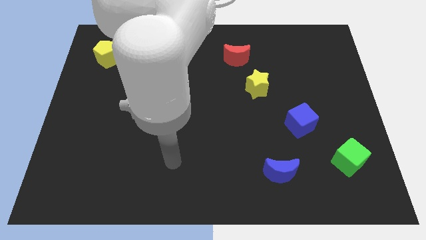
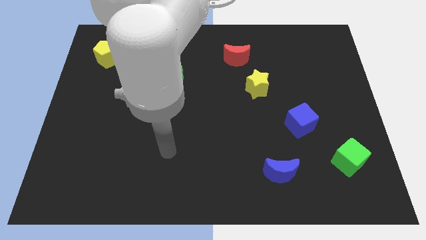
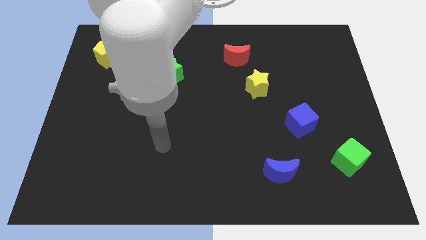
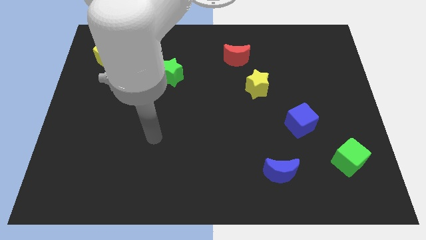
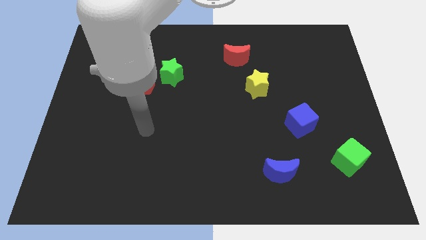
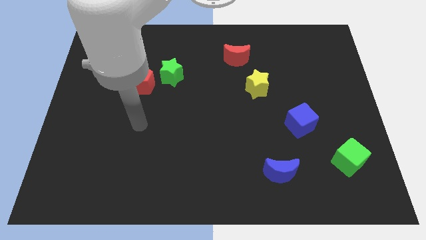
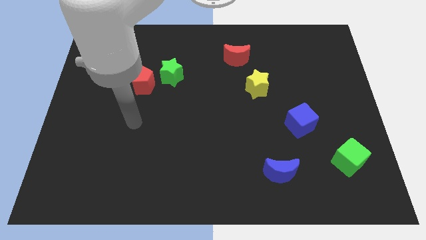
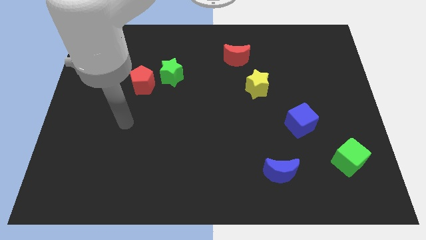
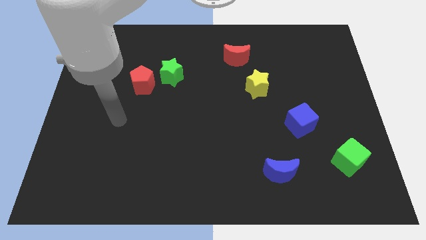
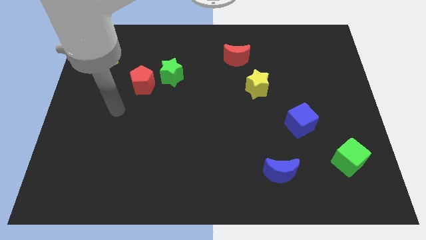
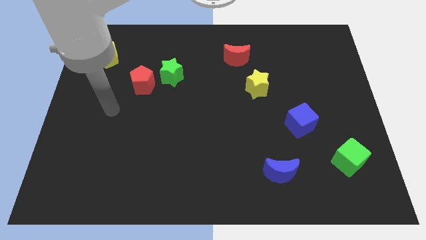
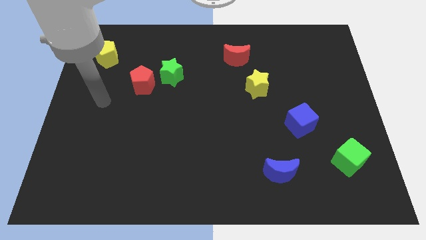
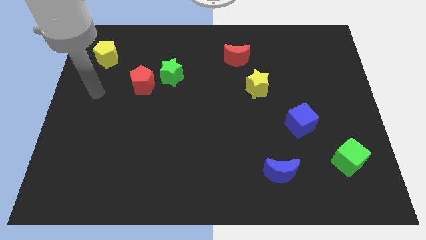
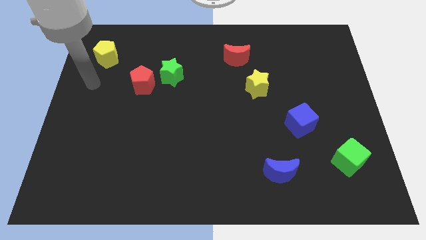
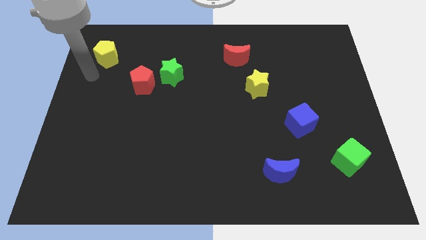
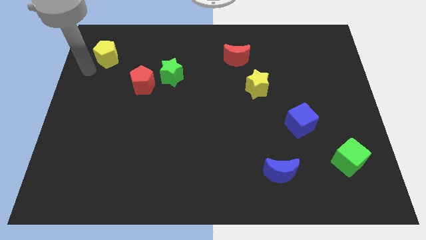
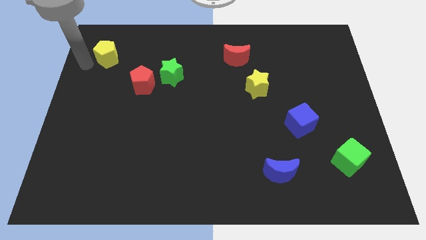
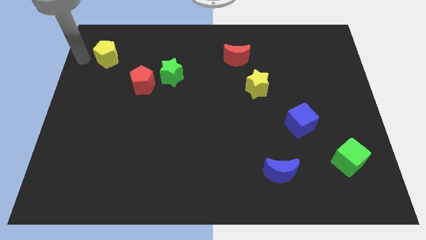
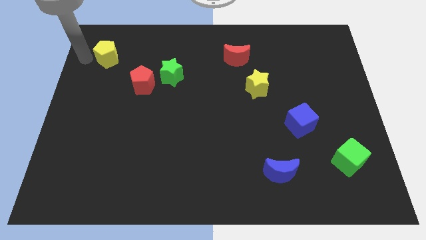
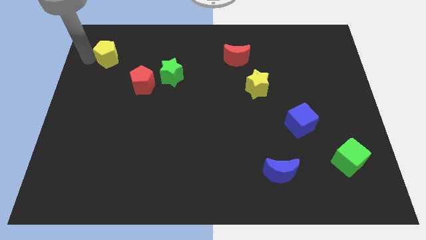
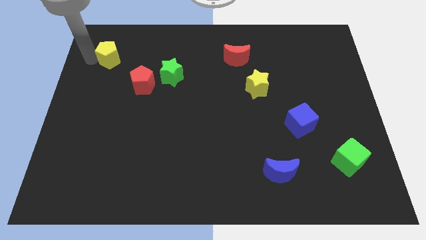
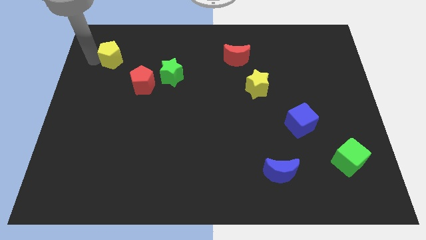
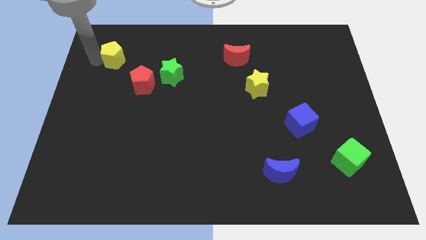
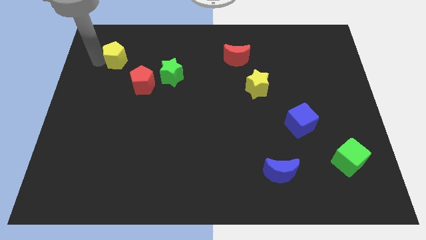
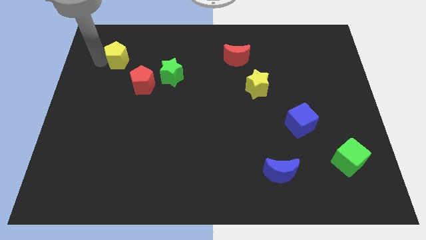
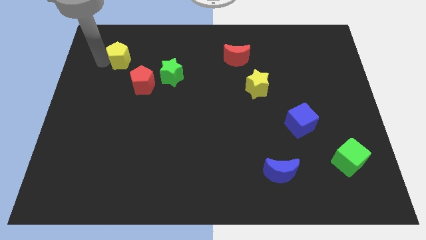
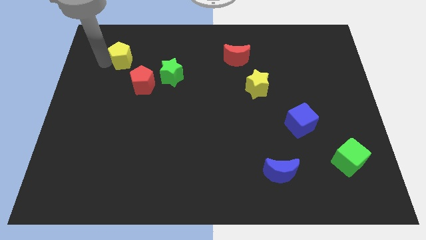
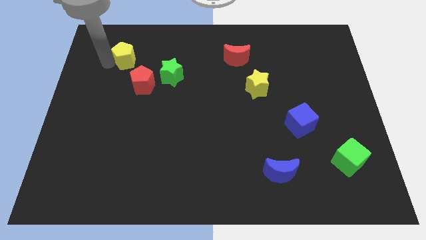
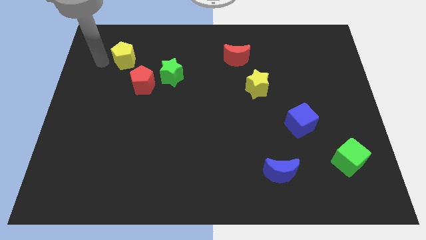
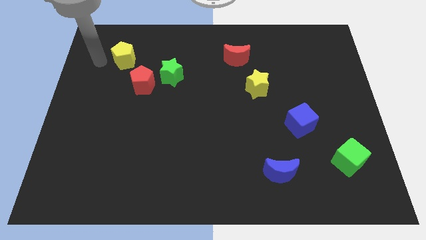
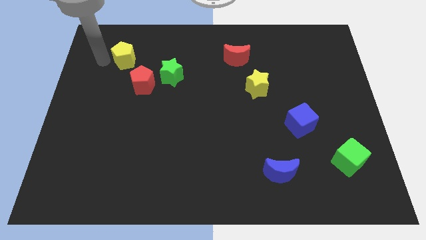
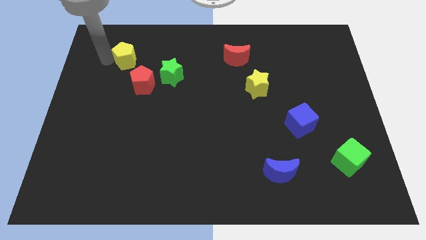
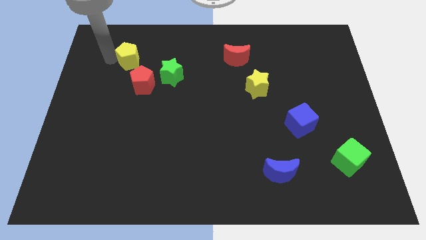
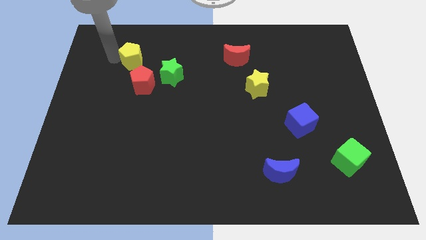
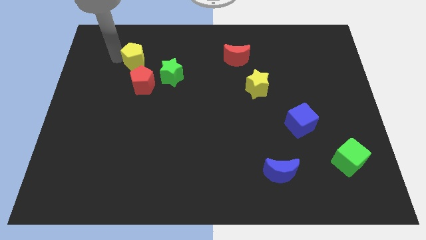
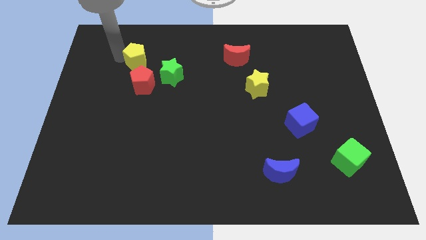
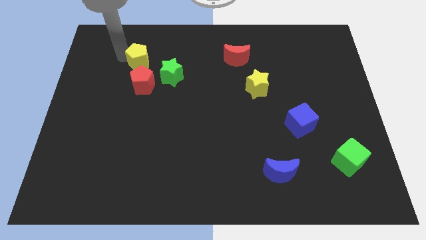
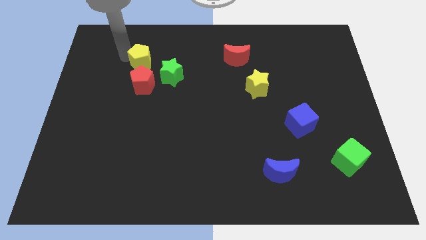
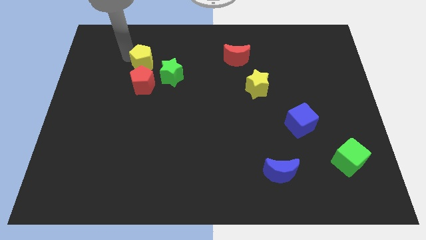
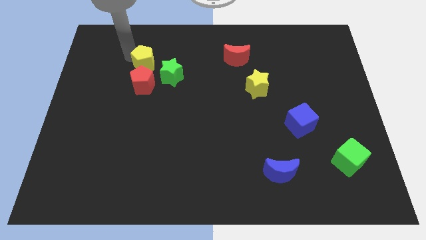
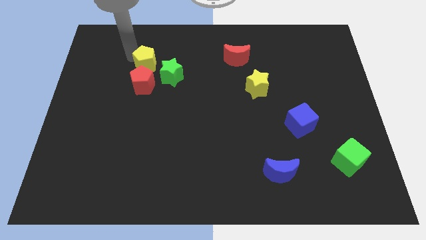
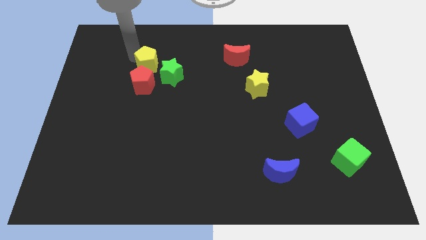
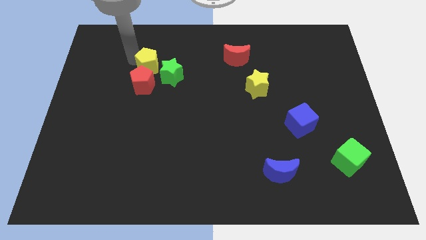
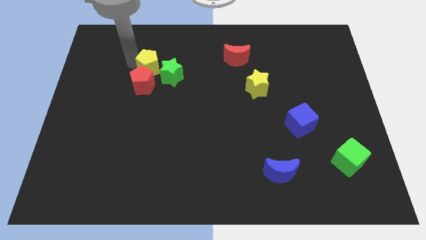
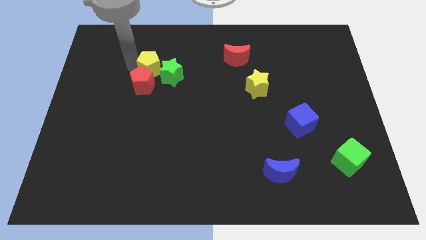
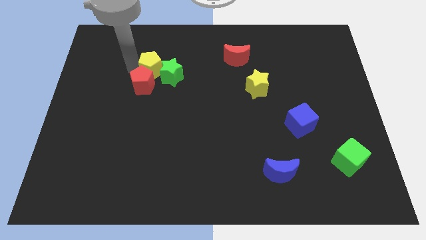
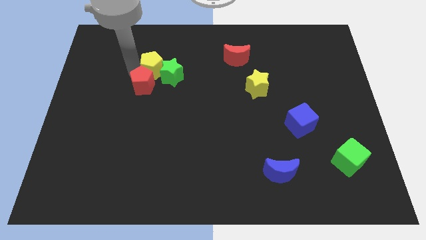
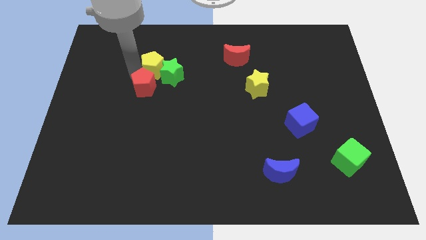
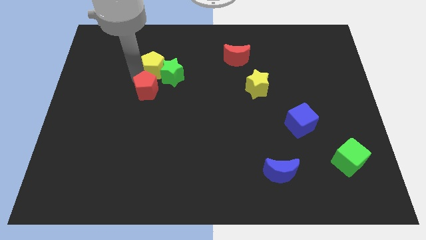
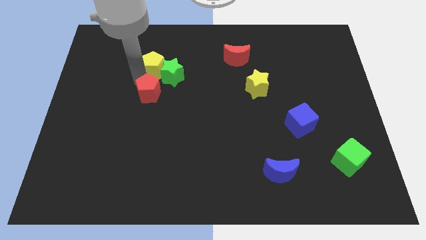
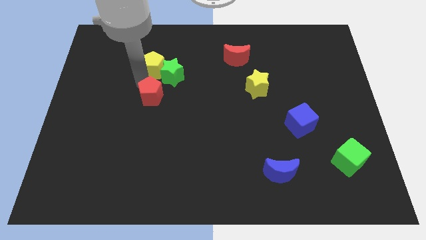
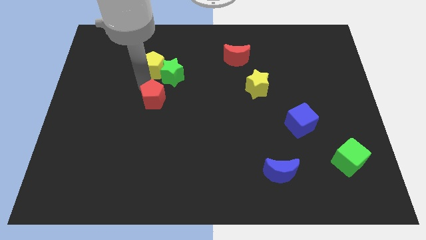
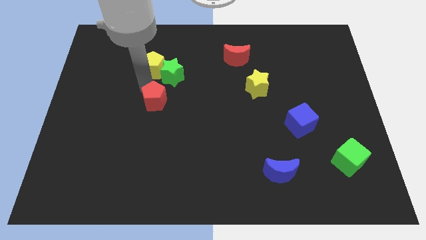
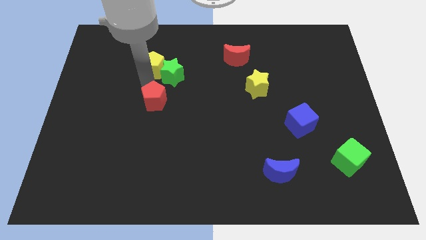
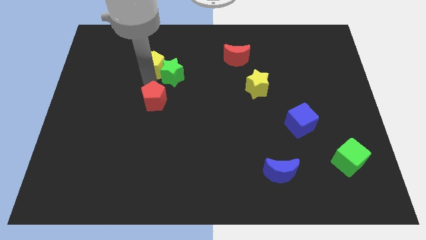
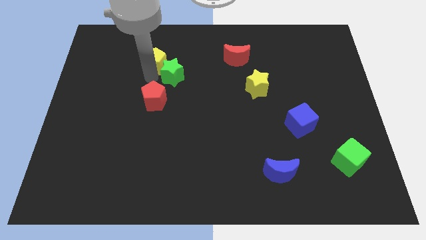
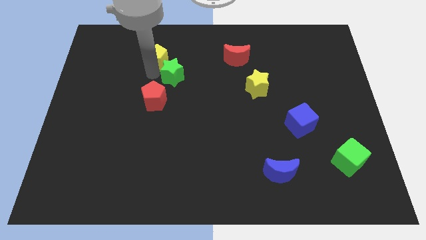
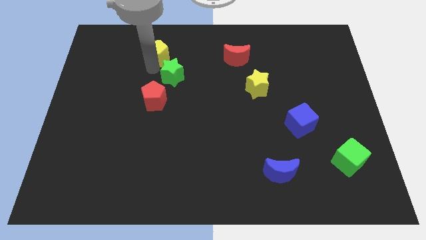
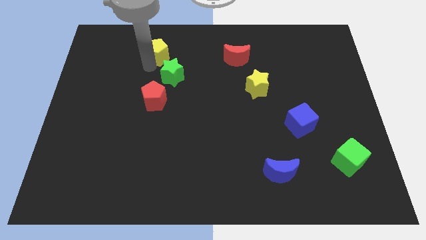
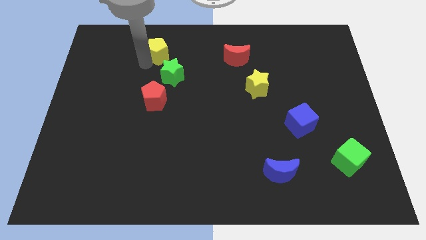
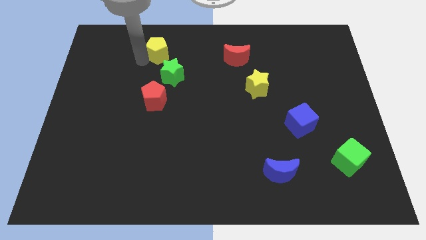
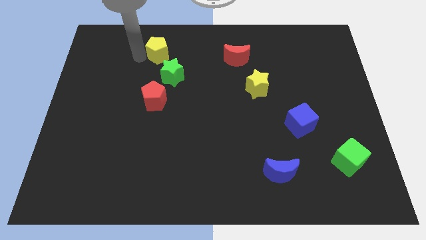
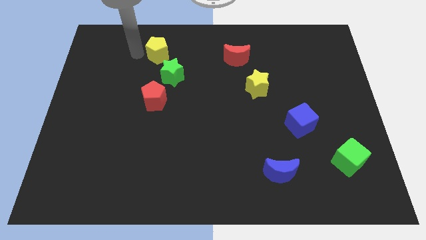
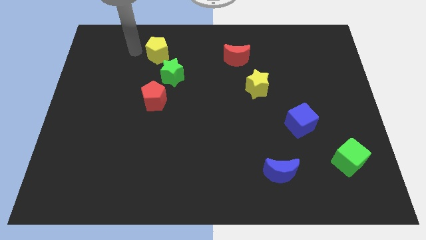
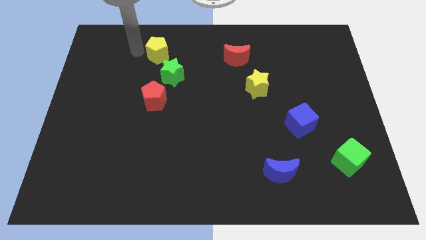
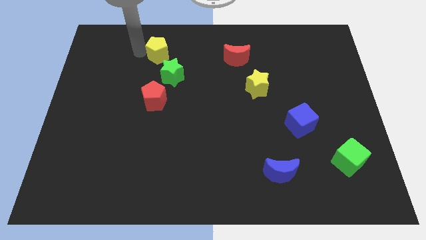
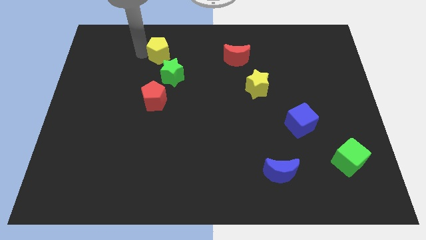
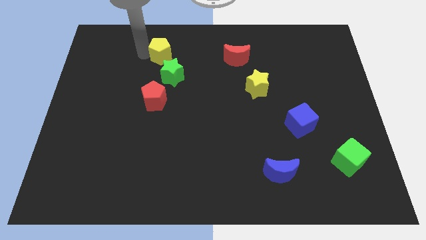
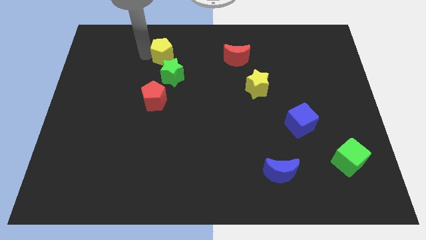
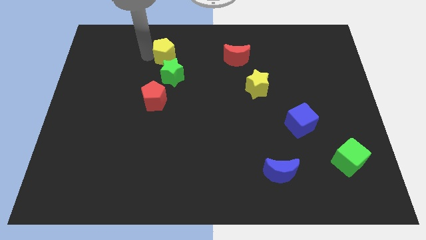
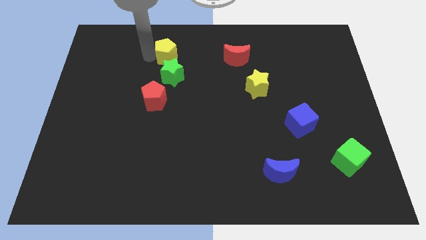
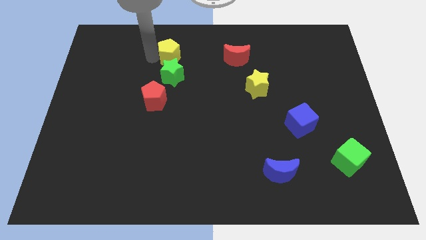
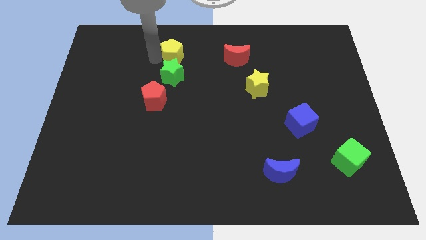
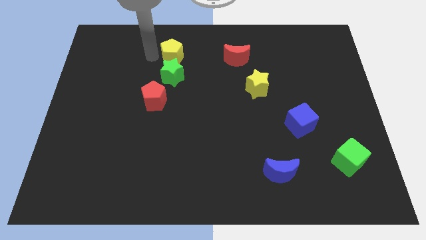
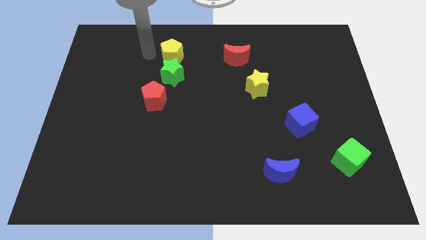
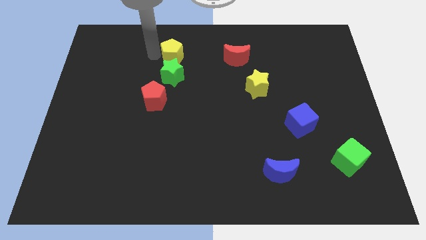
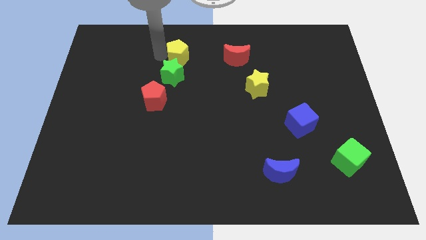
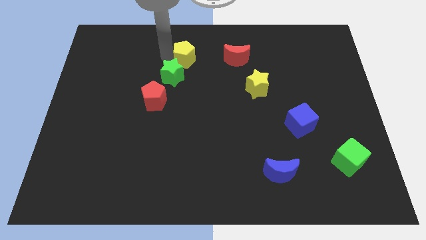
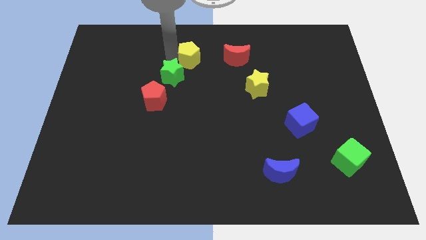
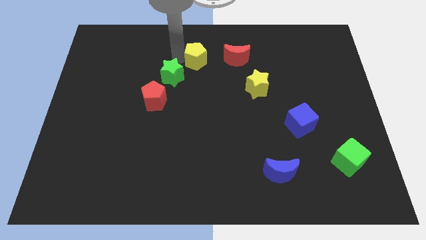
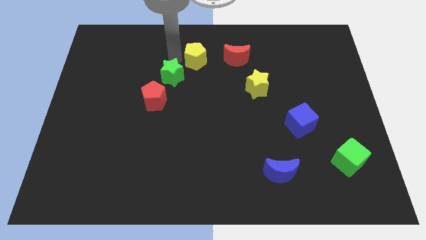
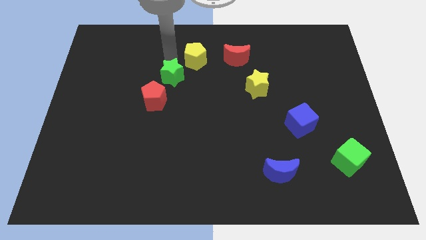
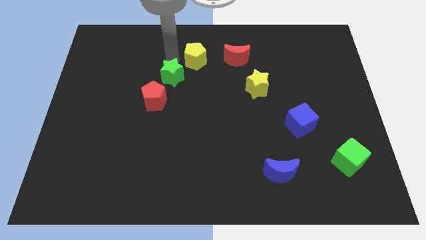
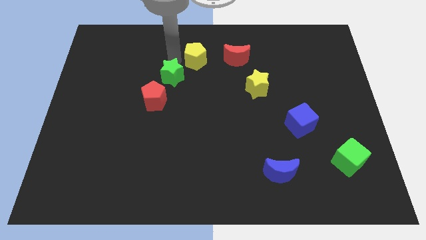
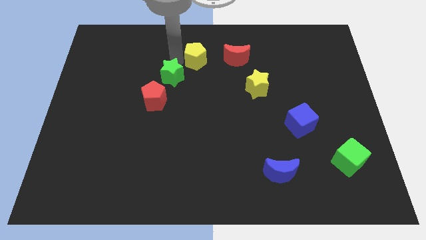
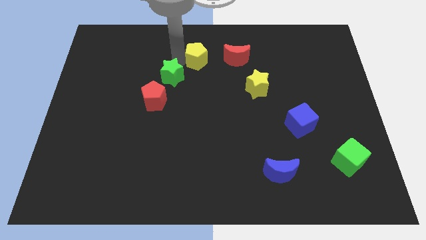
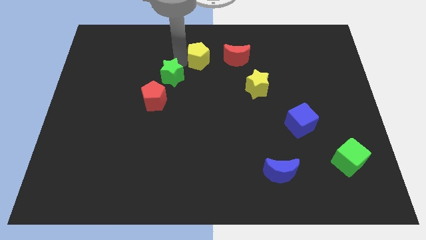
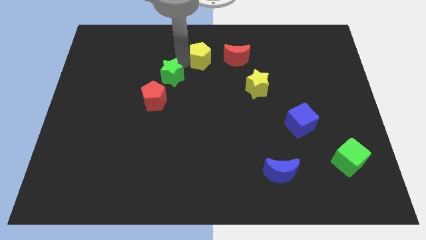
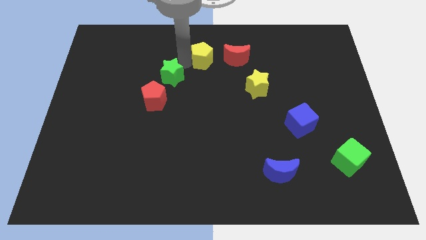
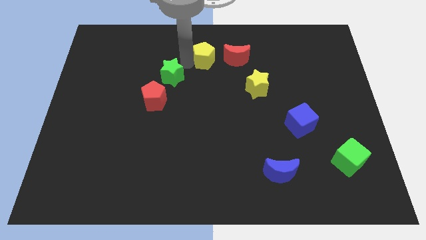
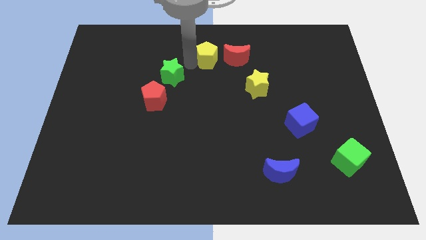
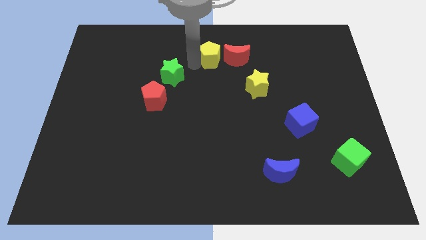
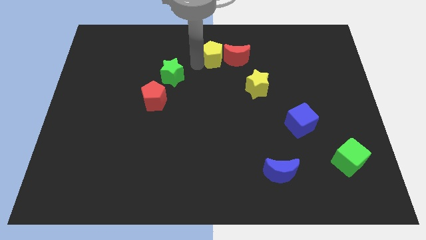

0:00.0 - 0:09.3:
move the yellow pentagon to the red moon
